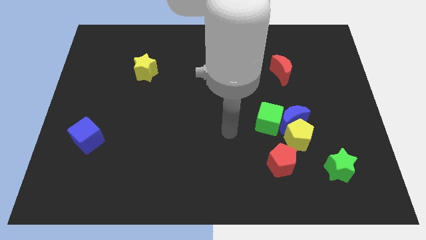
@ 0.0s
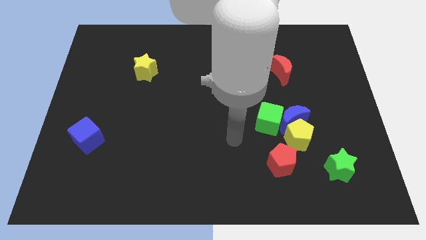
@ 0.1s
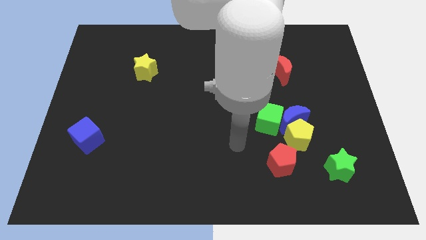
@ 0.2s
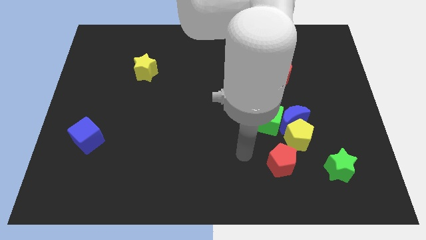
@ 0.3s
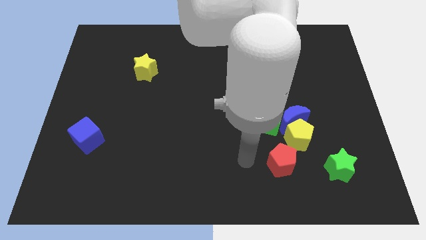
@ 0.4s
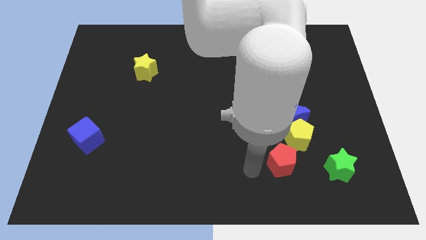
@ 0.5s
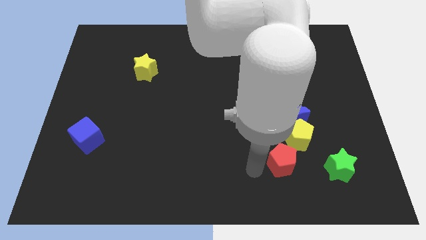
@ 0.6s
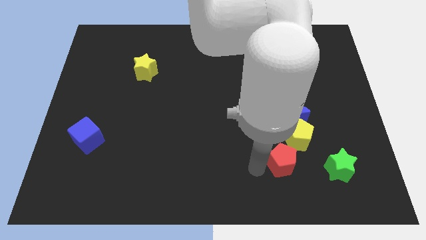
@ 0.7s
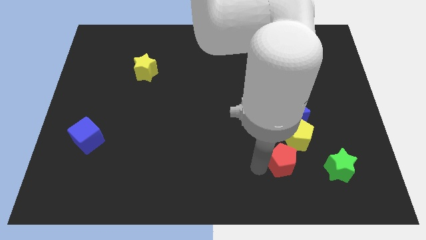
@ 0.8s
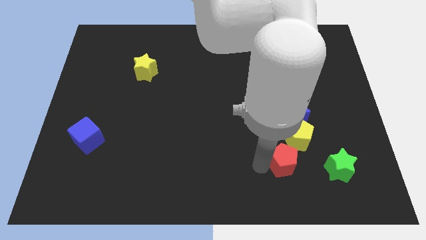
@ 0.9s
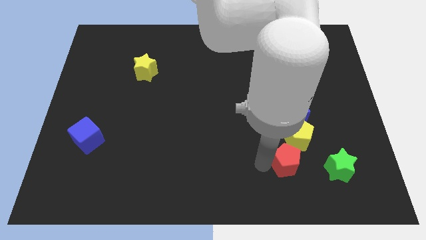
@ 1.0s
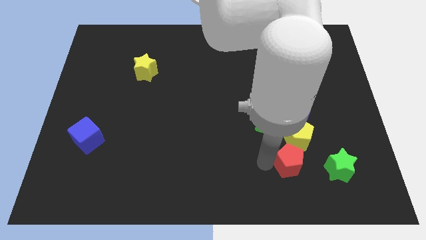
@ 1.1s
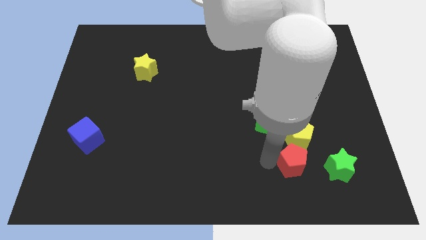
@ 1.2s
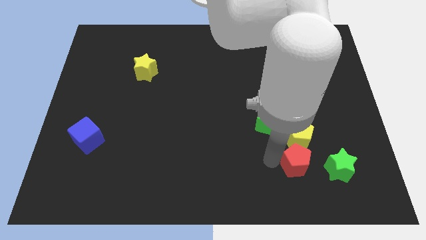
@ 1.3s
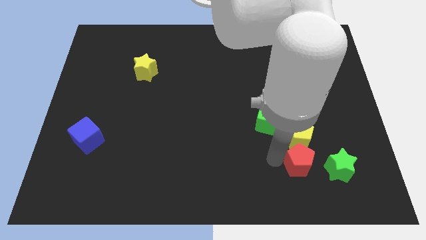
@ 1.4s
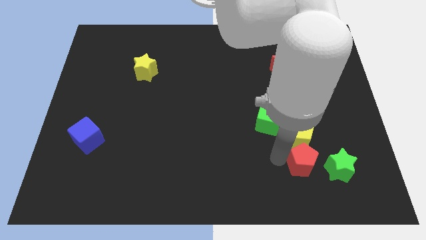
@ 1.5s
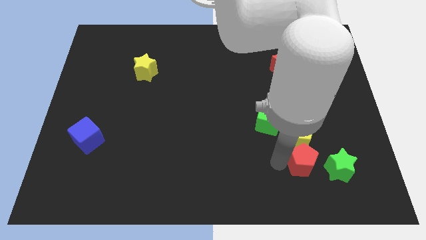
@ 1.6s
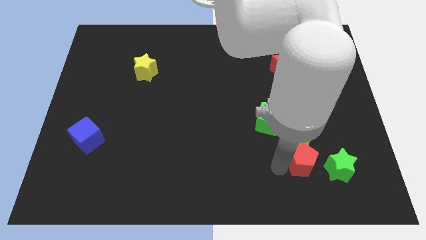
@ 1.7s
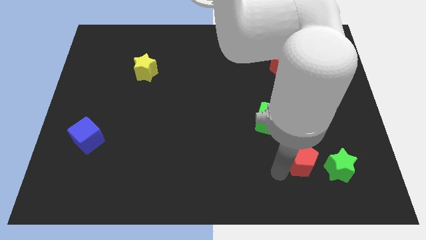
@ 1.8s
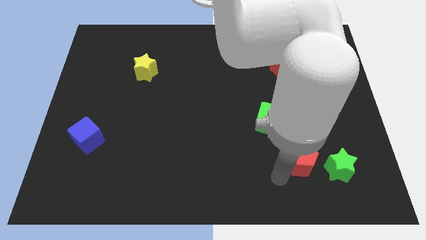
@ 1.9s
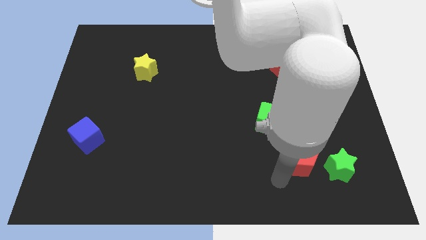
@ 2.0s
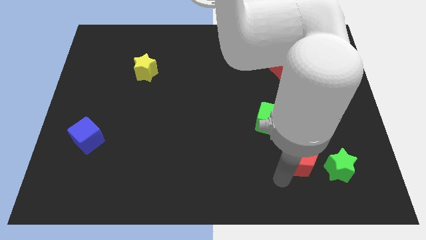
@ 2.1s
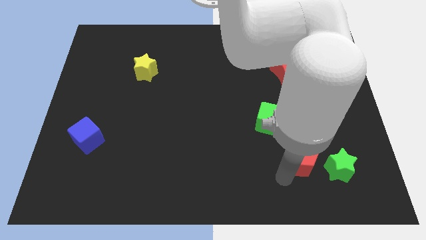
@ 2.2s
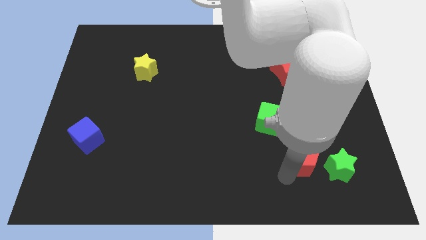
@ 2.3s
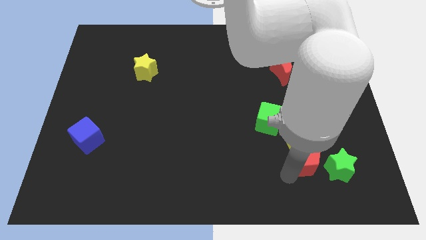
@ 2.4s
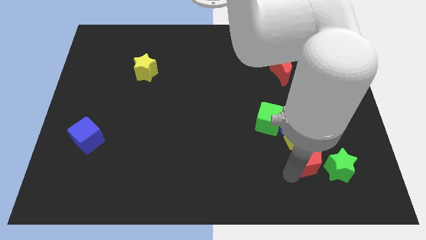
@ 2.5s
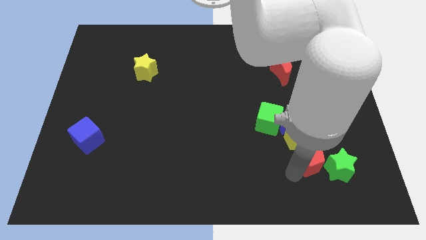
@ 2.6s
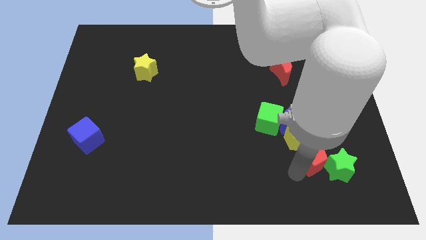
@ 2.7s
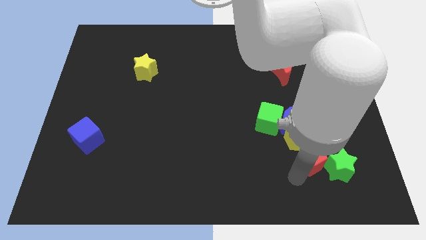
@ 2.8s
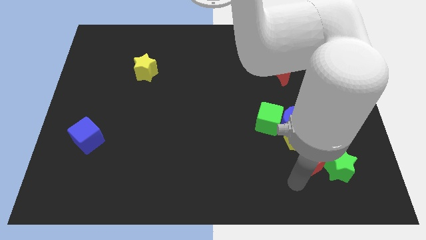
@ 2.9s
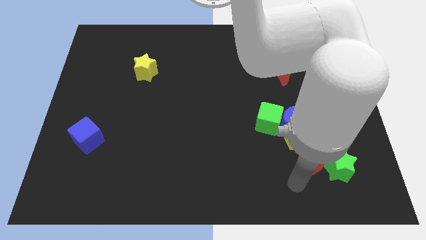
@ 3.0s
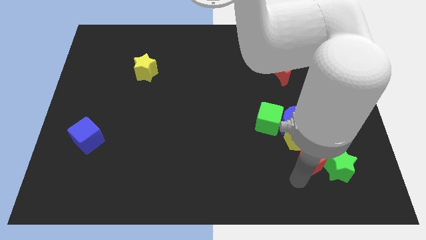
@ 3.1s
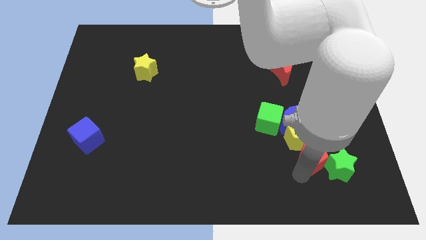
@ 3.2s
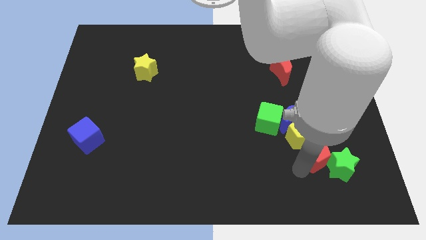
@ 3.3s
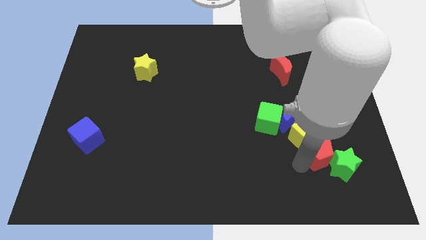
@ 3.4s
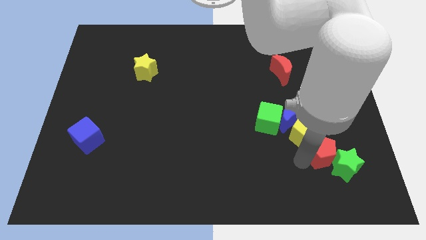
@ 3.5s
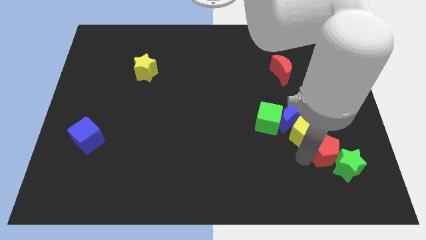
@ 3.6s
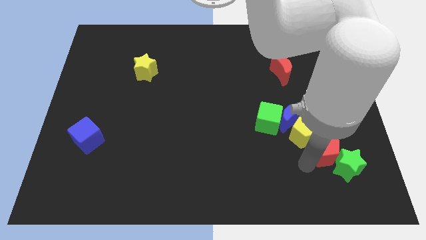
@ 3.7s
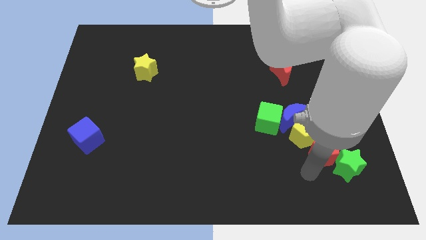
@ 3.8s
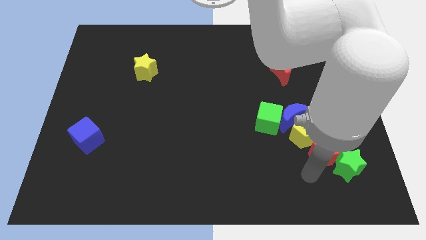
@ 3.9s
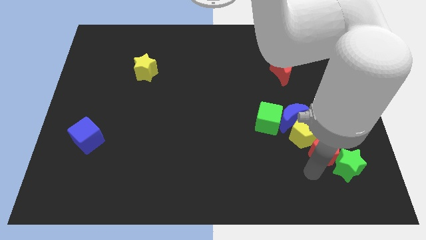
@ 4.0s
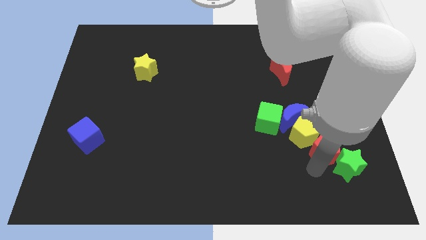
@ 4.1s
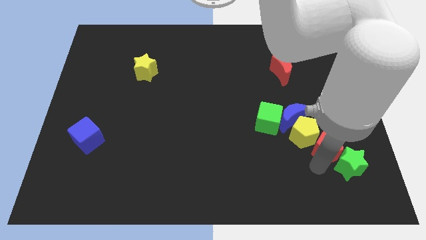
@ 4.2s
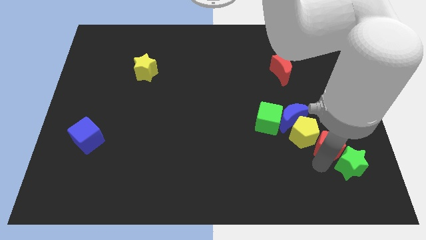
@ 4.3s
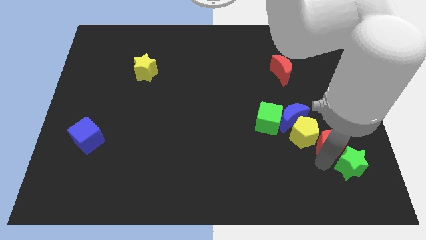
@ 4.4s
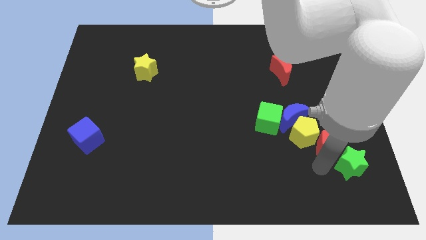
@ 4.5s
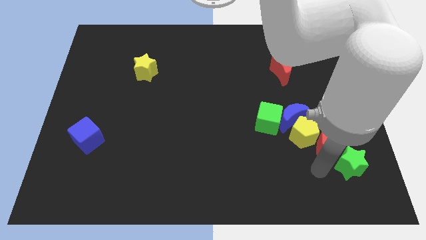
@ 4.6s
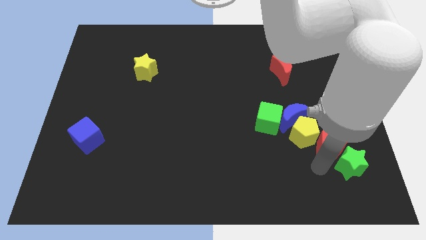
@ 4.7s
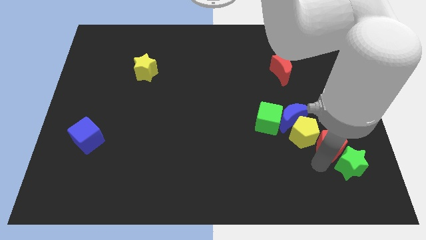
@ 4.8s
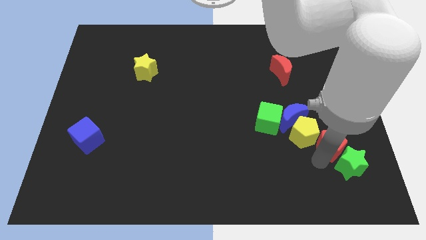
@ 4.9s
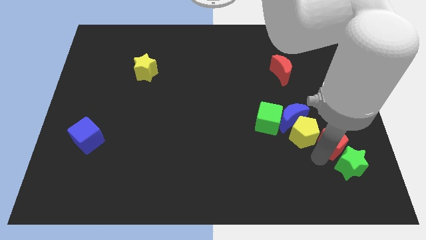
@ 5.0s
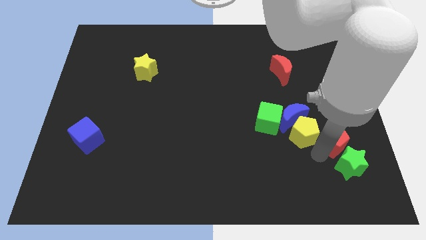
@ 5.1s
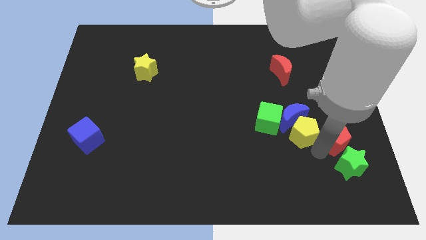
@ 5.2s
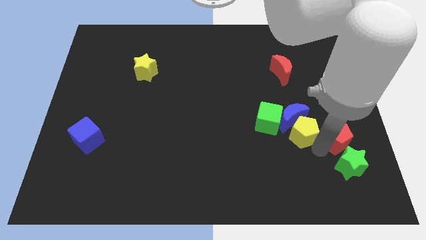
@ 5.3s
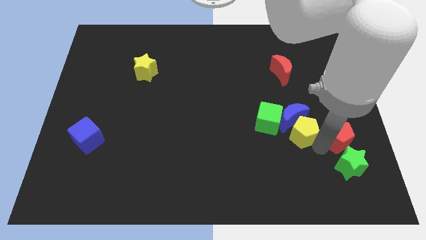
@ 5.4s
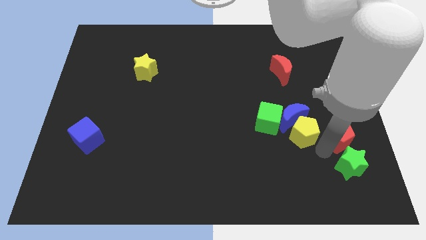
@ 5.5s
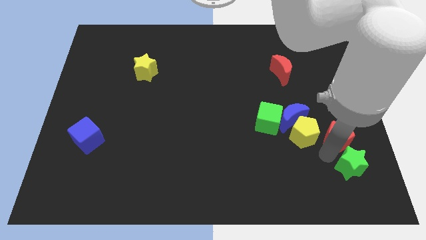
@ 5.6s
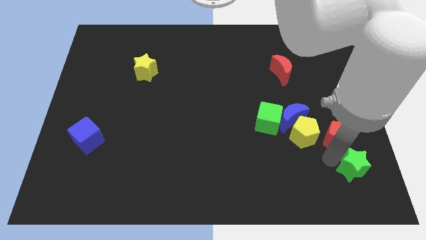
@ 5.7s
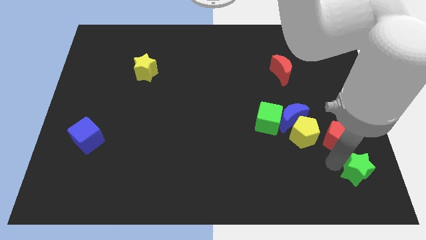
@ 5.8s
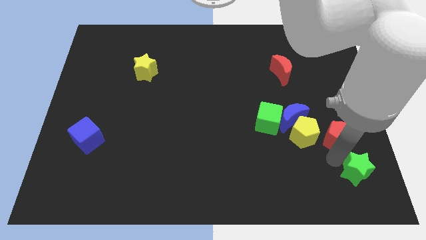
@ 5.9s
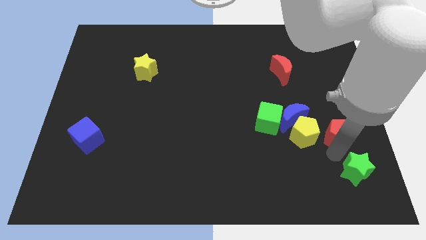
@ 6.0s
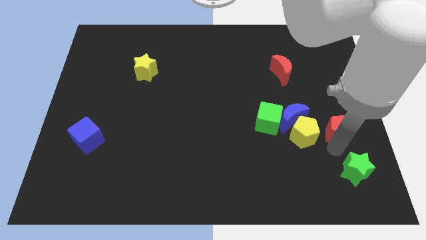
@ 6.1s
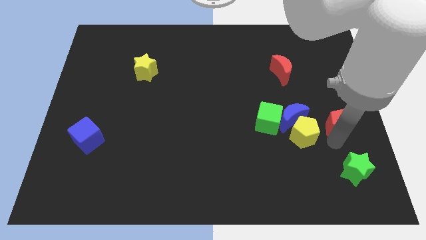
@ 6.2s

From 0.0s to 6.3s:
slide the red pentagon to the right side of the board

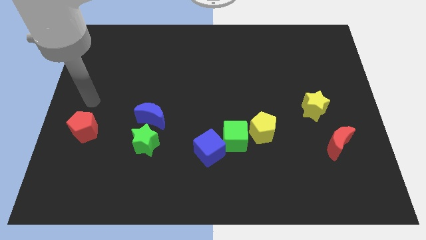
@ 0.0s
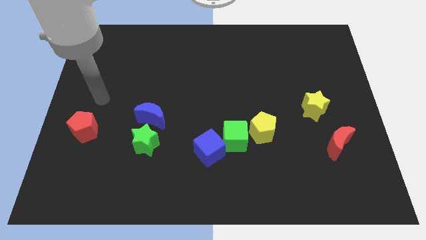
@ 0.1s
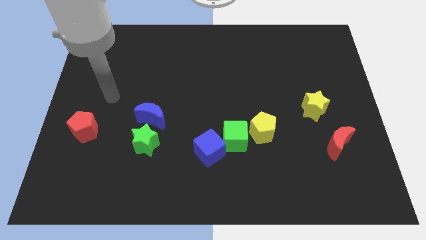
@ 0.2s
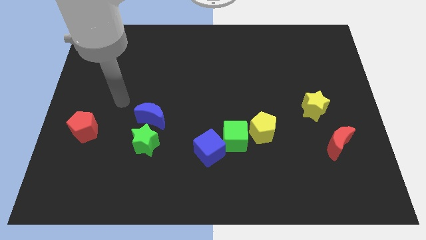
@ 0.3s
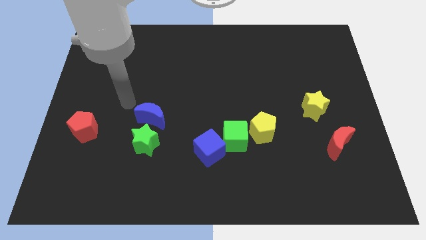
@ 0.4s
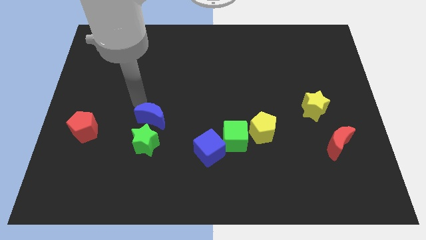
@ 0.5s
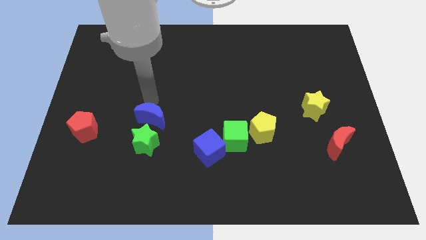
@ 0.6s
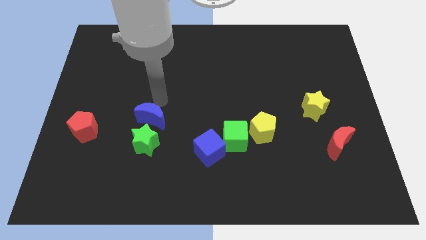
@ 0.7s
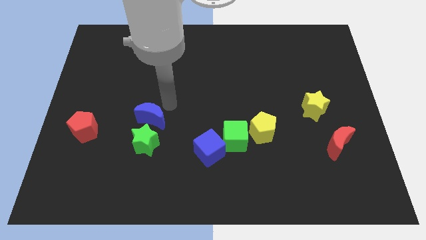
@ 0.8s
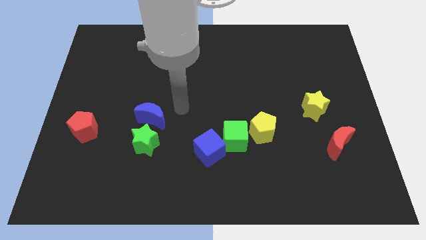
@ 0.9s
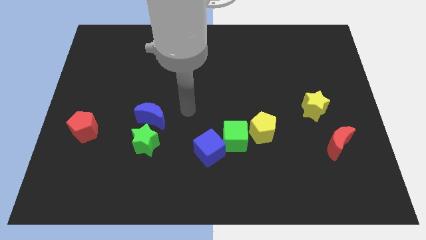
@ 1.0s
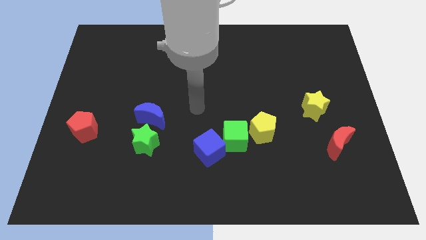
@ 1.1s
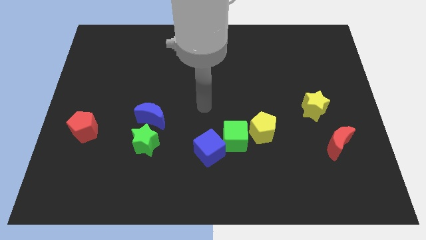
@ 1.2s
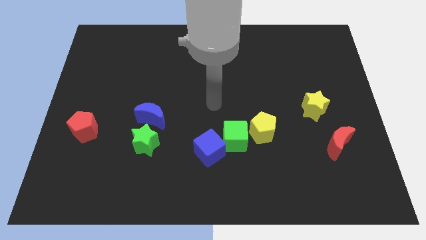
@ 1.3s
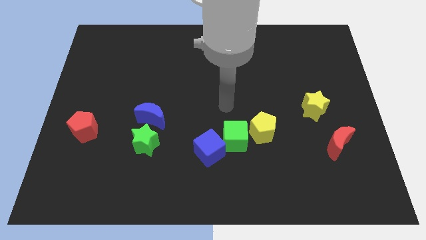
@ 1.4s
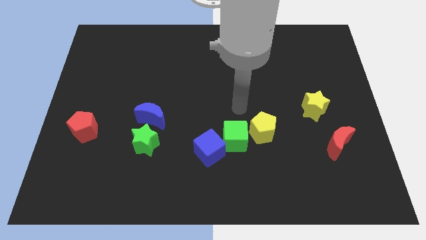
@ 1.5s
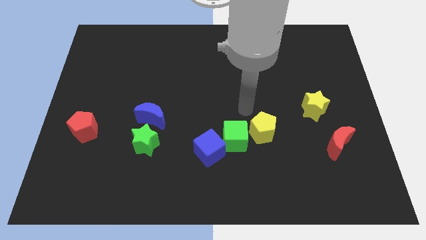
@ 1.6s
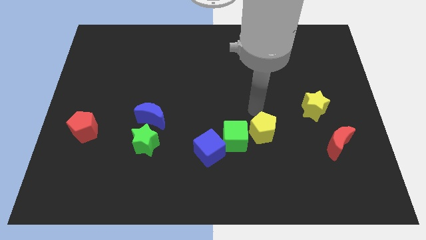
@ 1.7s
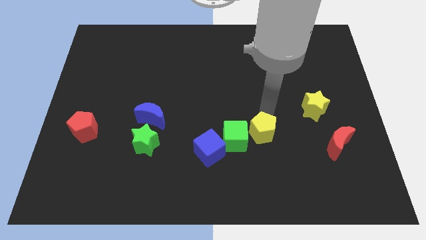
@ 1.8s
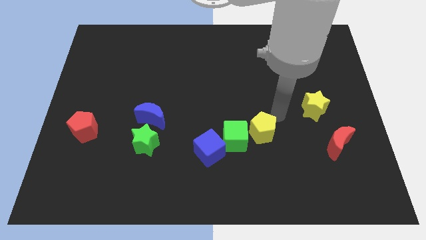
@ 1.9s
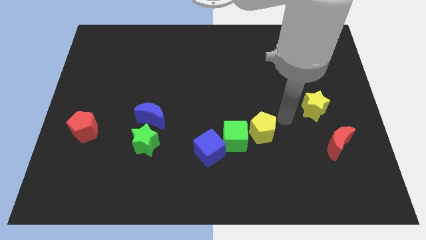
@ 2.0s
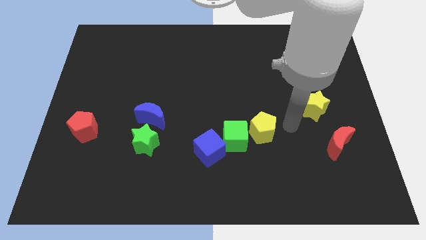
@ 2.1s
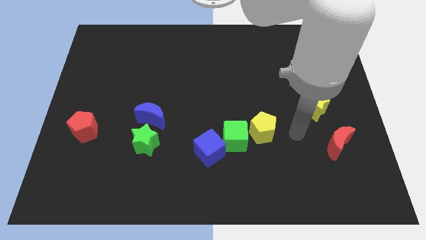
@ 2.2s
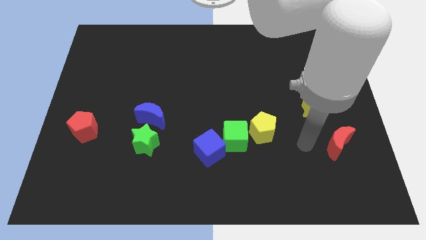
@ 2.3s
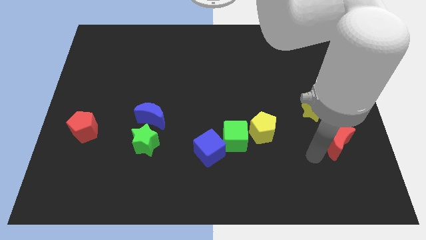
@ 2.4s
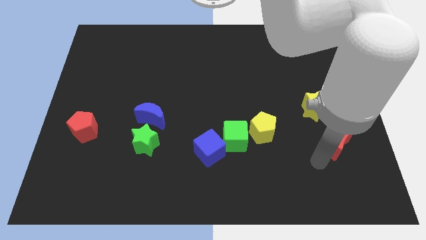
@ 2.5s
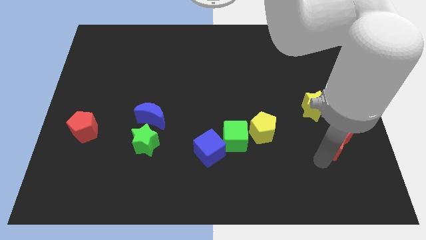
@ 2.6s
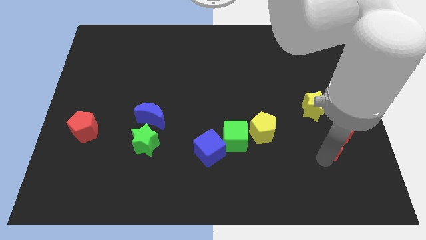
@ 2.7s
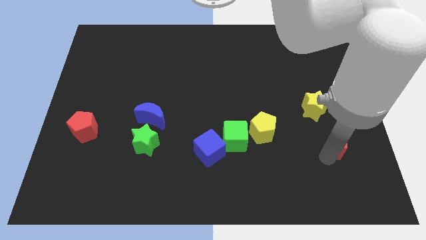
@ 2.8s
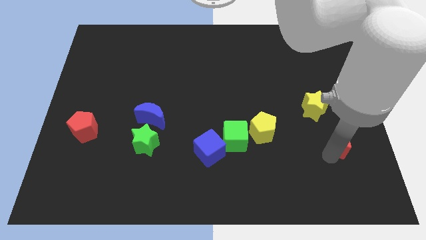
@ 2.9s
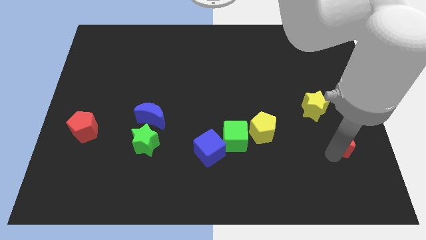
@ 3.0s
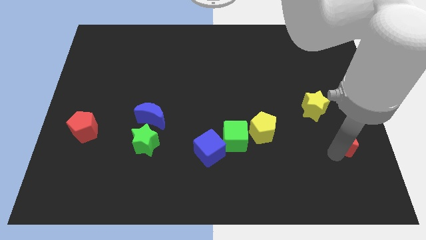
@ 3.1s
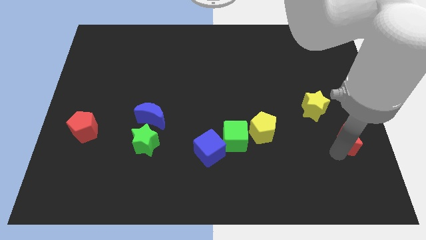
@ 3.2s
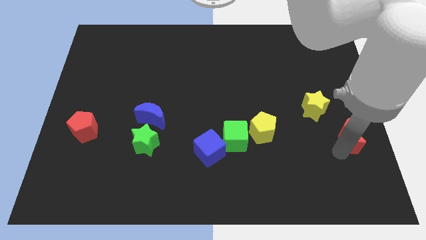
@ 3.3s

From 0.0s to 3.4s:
push the red moon to the right side of the board
